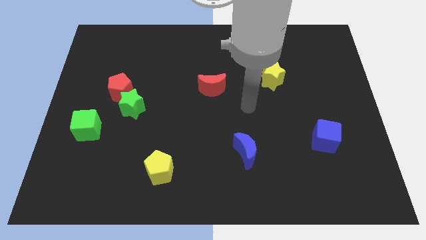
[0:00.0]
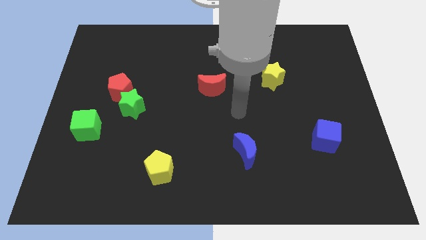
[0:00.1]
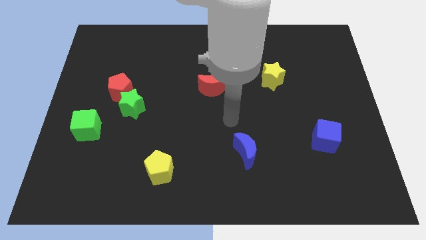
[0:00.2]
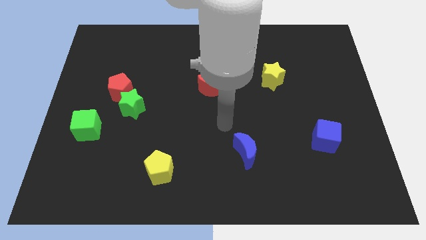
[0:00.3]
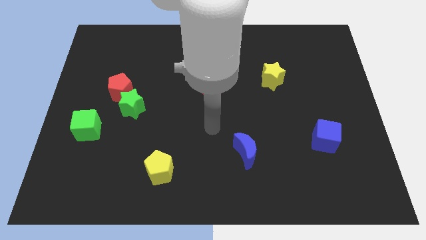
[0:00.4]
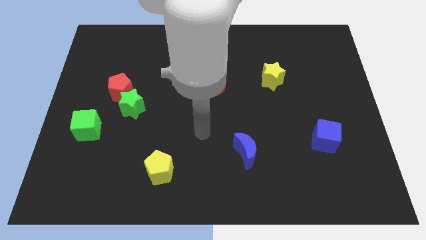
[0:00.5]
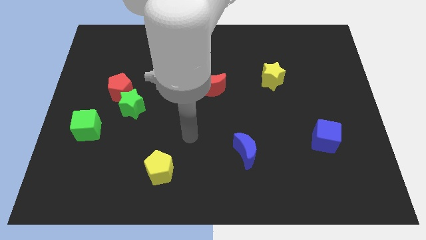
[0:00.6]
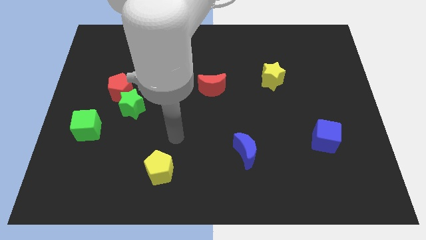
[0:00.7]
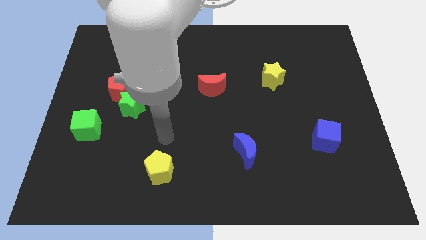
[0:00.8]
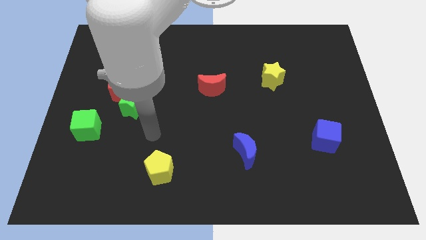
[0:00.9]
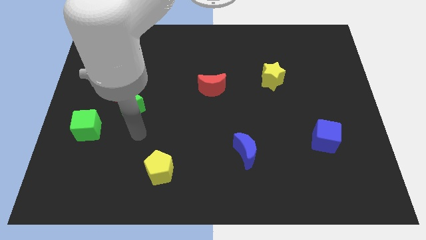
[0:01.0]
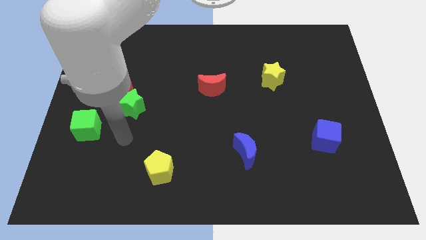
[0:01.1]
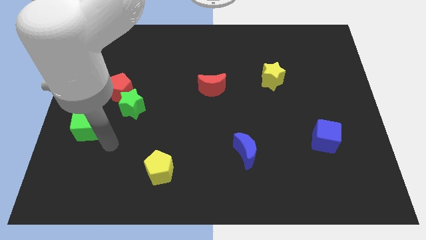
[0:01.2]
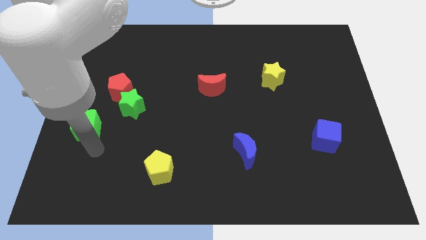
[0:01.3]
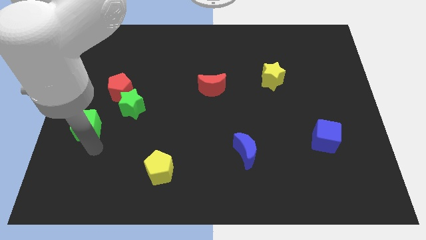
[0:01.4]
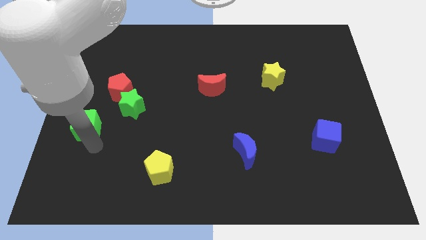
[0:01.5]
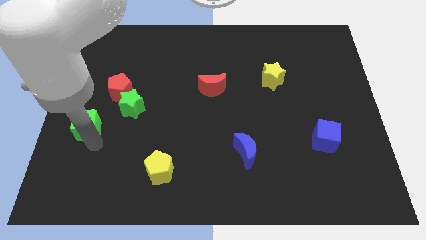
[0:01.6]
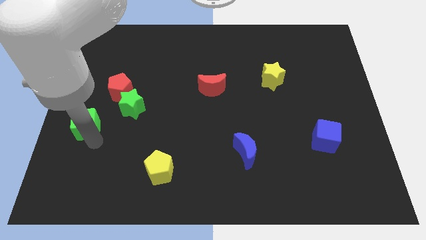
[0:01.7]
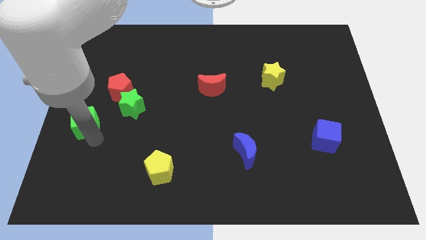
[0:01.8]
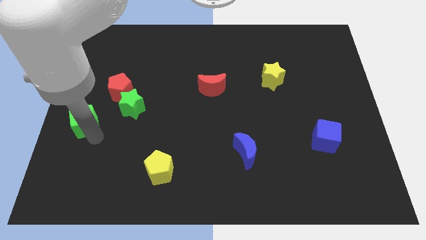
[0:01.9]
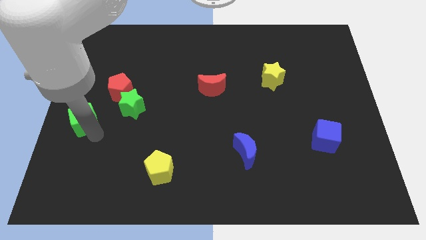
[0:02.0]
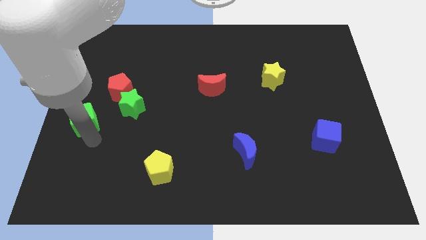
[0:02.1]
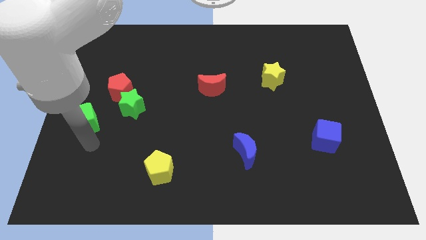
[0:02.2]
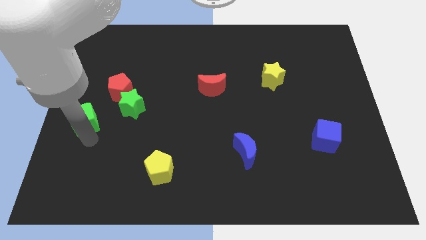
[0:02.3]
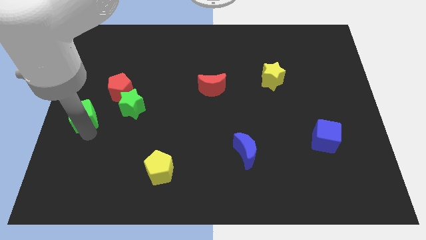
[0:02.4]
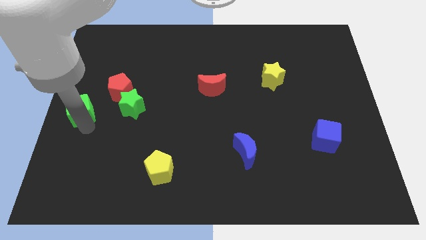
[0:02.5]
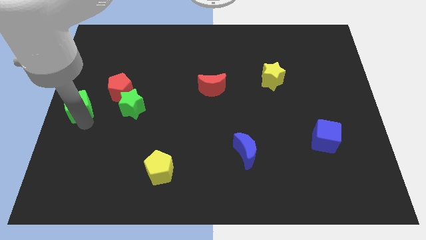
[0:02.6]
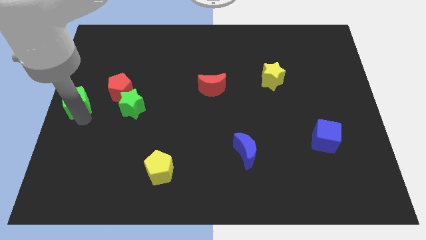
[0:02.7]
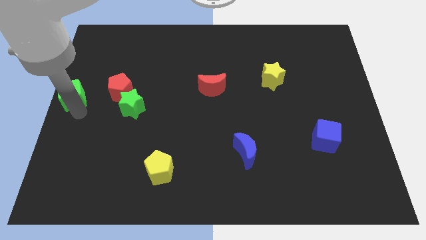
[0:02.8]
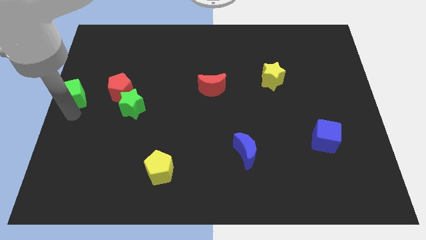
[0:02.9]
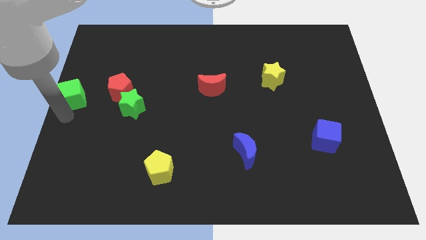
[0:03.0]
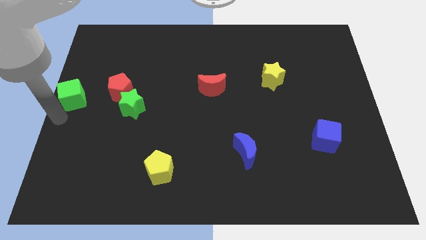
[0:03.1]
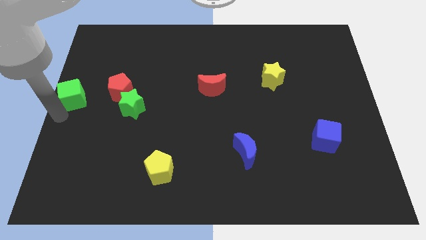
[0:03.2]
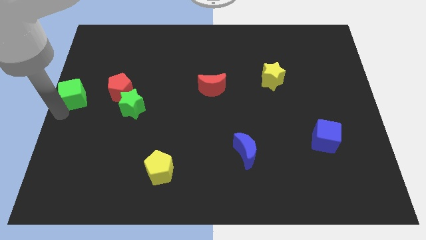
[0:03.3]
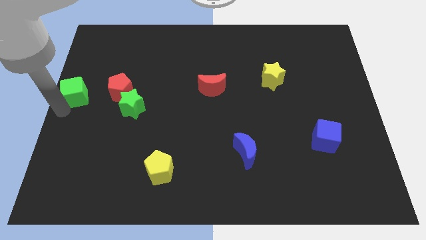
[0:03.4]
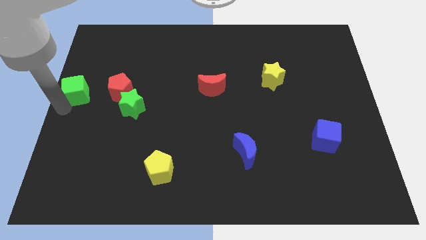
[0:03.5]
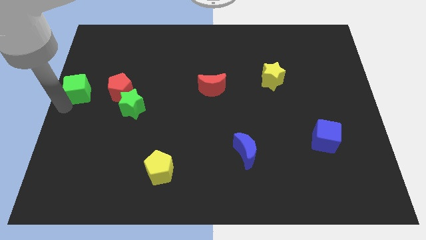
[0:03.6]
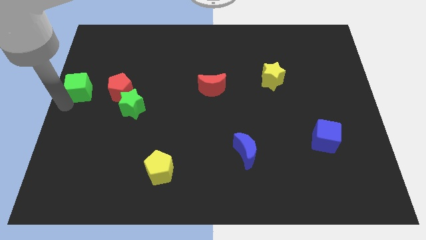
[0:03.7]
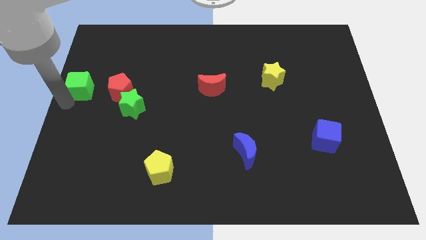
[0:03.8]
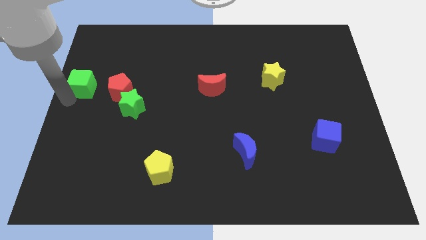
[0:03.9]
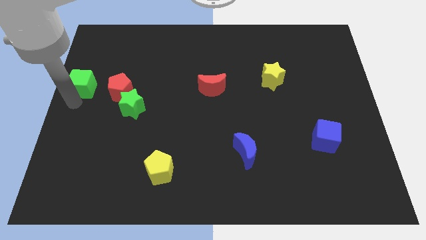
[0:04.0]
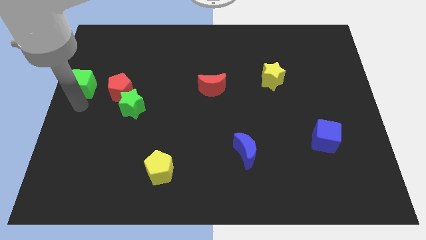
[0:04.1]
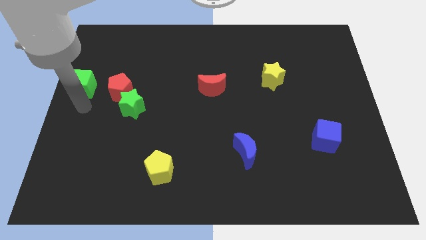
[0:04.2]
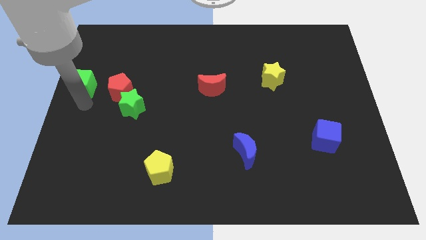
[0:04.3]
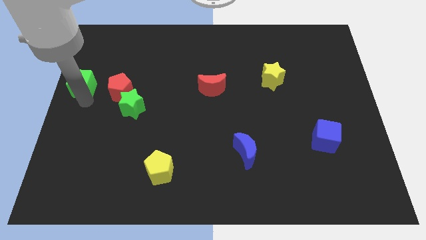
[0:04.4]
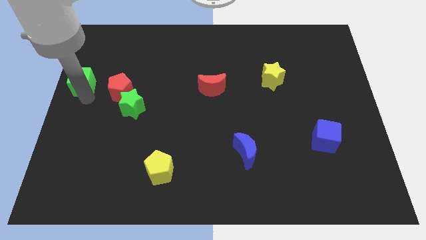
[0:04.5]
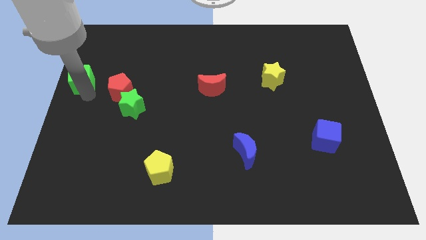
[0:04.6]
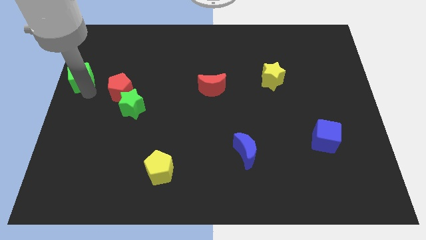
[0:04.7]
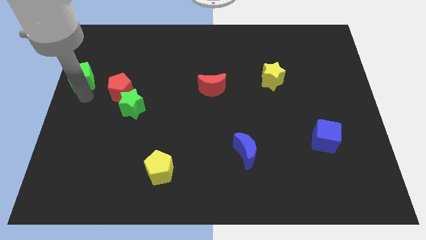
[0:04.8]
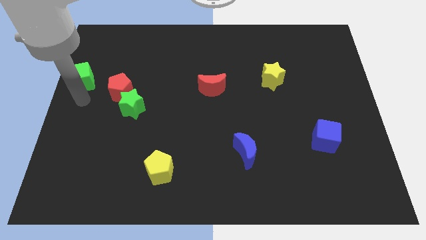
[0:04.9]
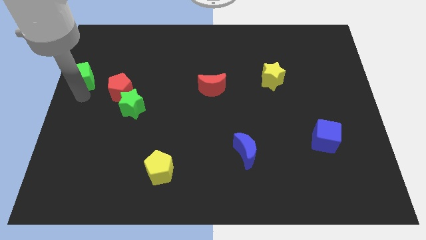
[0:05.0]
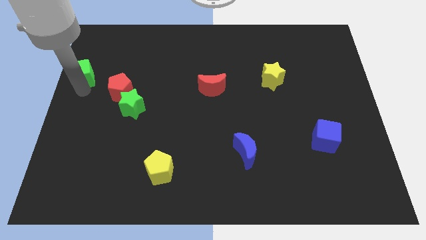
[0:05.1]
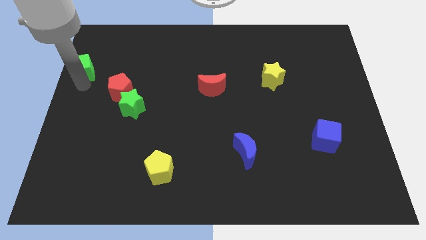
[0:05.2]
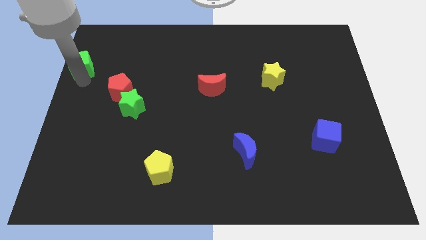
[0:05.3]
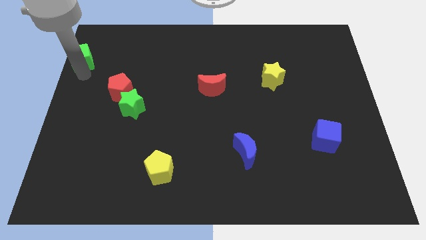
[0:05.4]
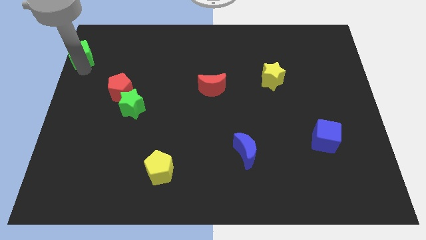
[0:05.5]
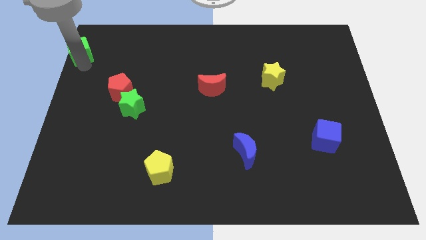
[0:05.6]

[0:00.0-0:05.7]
slide the green cube to the top left of the board

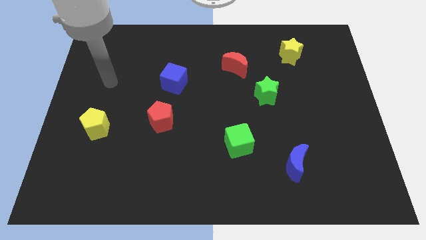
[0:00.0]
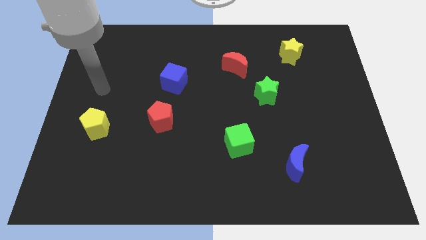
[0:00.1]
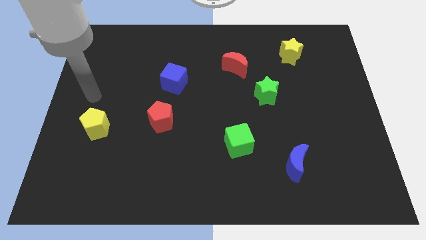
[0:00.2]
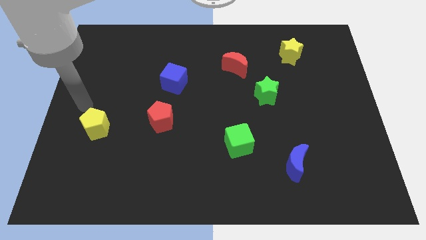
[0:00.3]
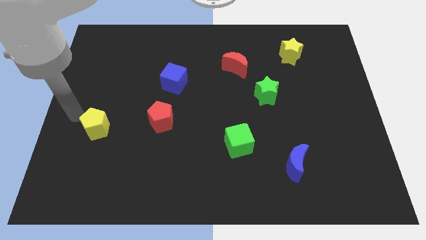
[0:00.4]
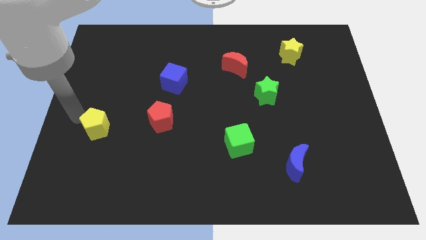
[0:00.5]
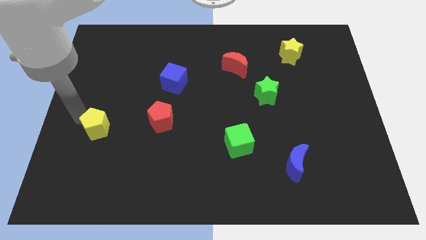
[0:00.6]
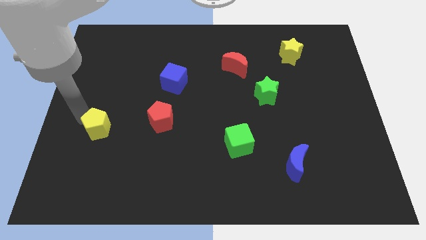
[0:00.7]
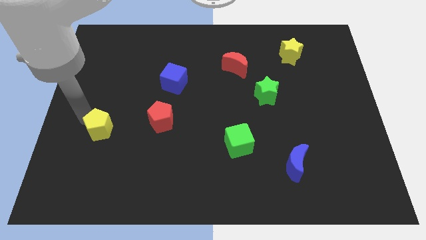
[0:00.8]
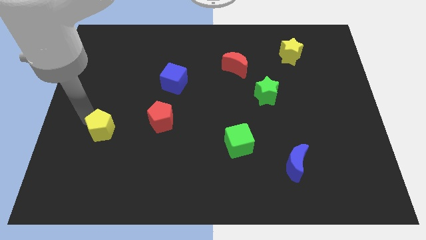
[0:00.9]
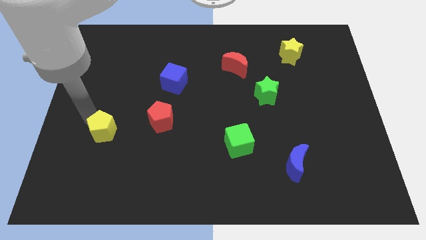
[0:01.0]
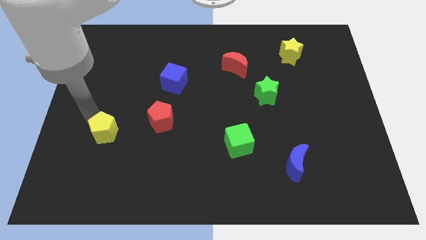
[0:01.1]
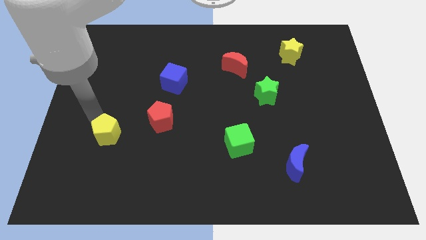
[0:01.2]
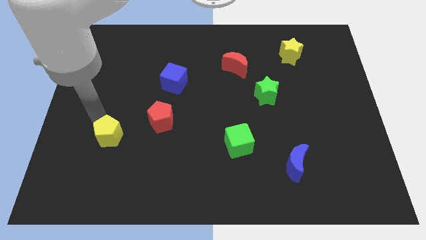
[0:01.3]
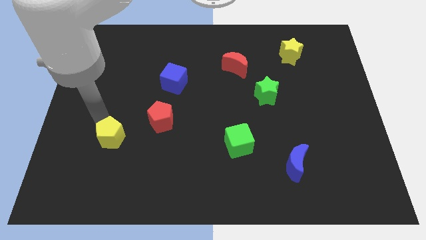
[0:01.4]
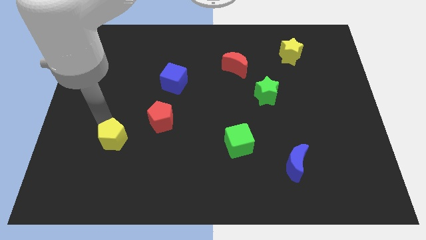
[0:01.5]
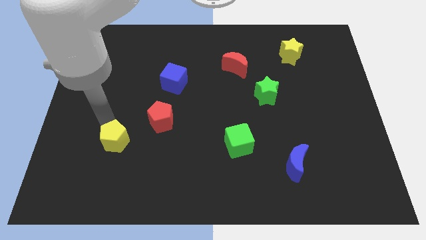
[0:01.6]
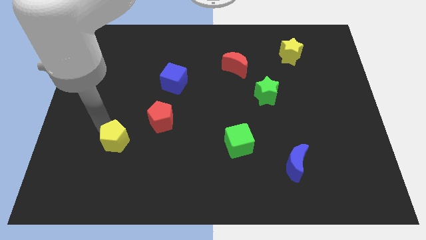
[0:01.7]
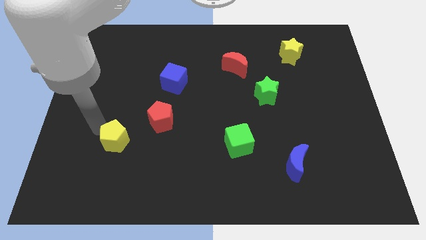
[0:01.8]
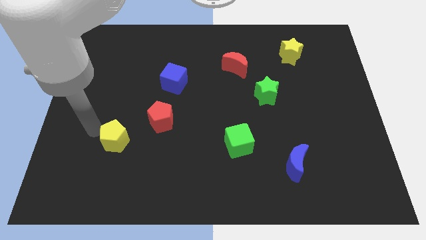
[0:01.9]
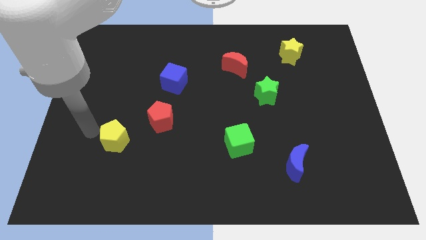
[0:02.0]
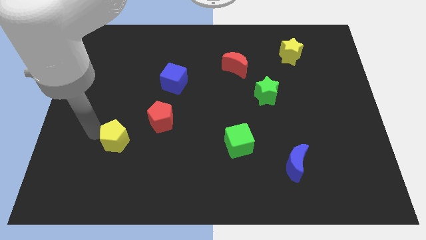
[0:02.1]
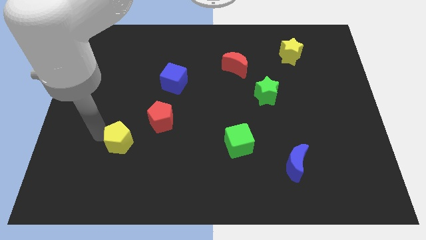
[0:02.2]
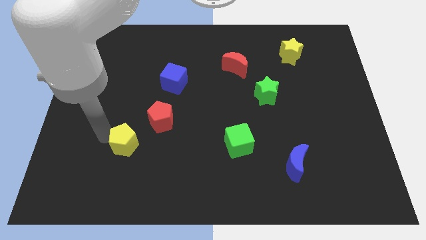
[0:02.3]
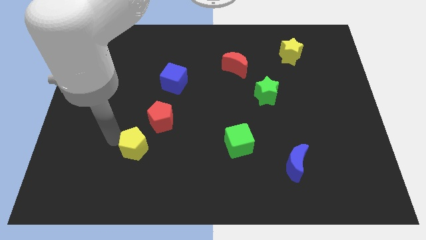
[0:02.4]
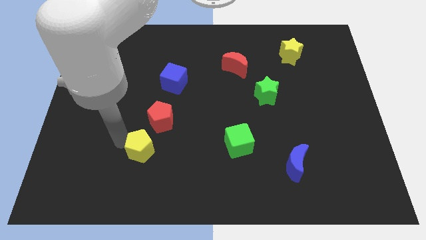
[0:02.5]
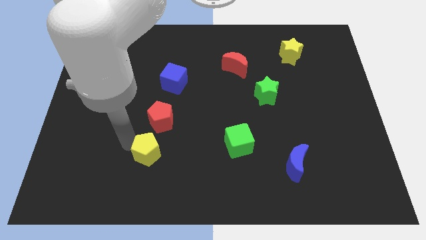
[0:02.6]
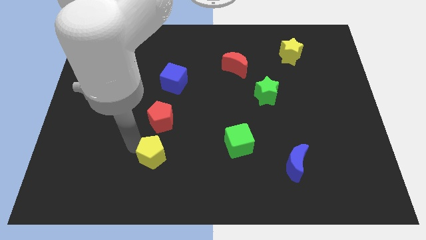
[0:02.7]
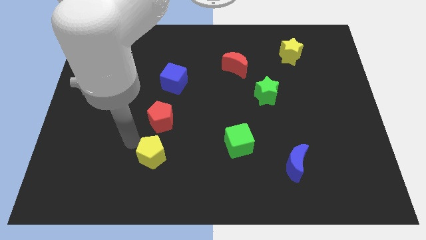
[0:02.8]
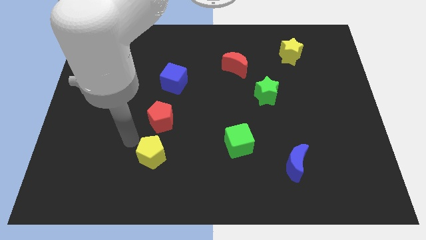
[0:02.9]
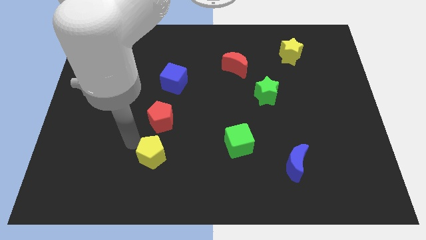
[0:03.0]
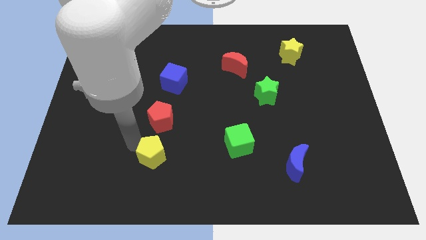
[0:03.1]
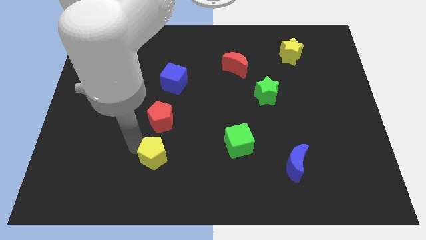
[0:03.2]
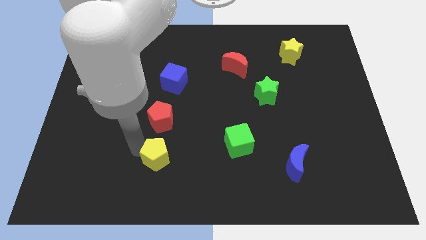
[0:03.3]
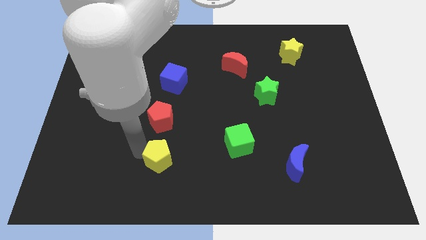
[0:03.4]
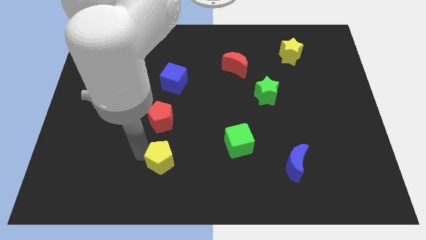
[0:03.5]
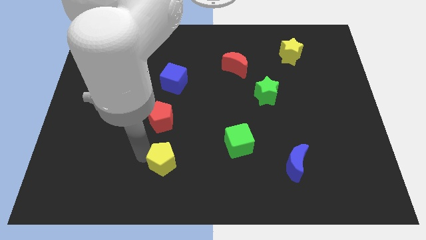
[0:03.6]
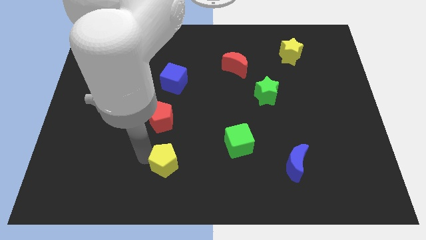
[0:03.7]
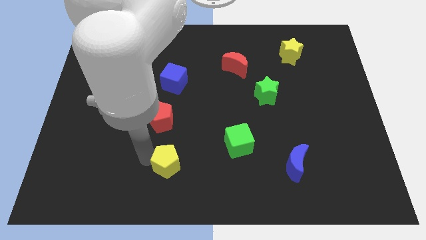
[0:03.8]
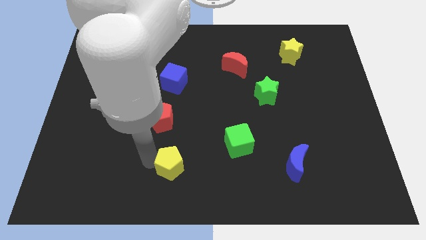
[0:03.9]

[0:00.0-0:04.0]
slide the yellow pentagon to the bottom
